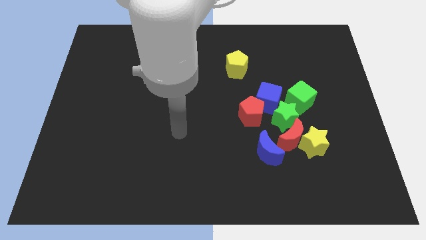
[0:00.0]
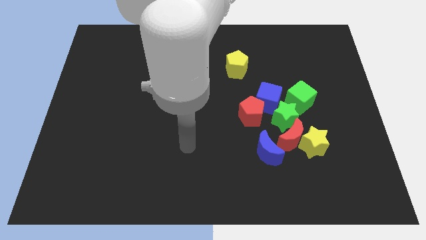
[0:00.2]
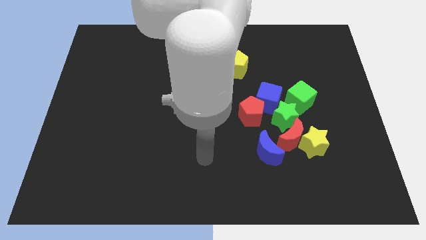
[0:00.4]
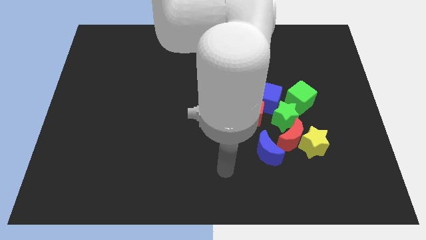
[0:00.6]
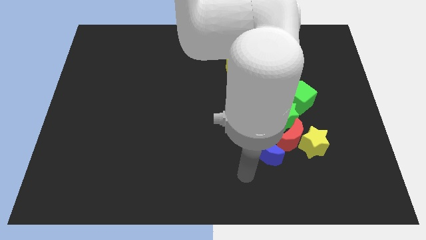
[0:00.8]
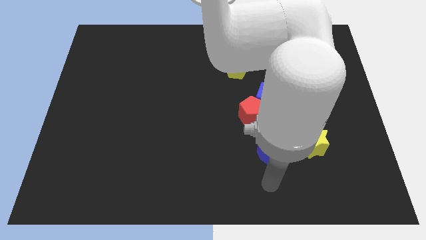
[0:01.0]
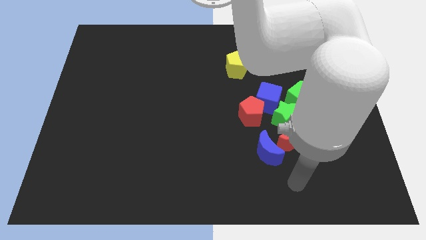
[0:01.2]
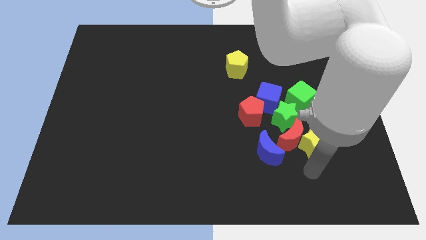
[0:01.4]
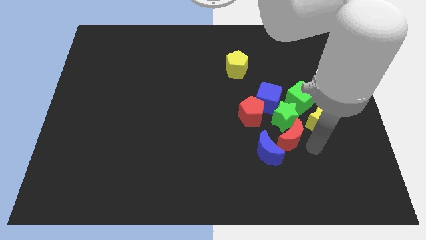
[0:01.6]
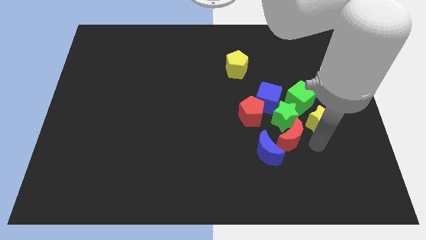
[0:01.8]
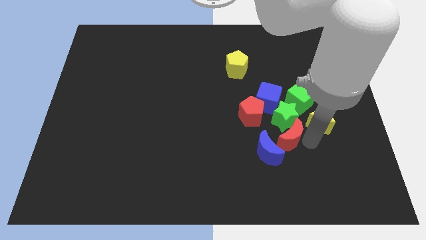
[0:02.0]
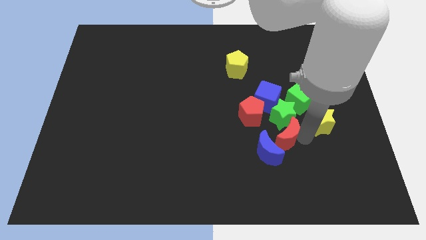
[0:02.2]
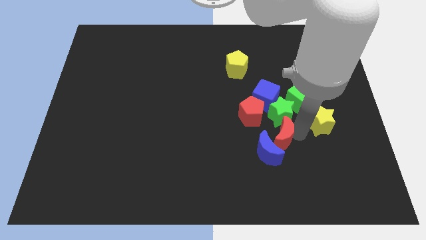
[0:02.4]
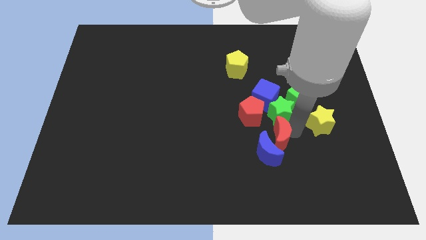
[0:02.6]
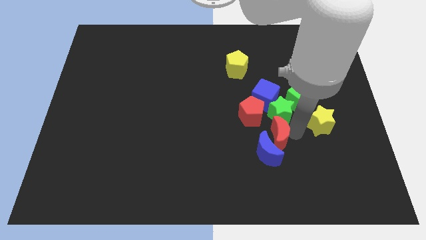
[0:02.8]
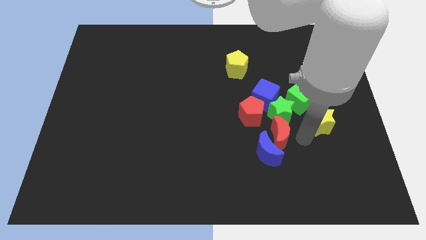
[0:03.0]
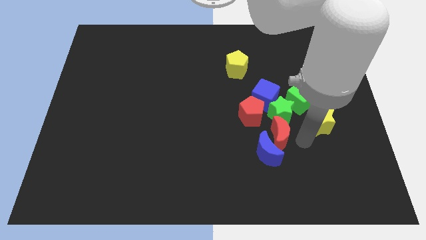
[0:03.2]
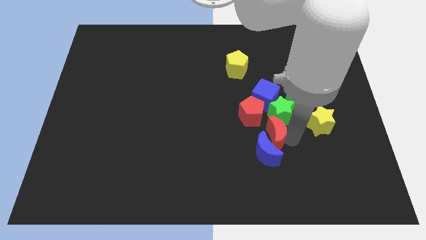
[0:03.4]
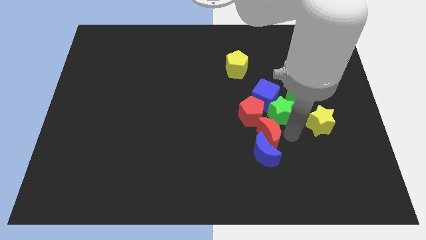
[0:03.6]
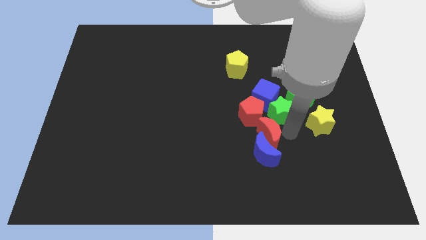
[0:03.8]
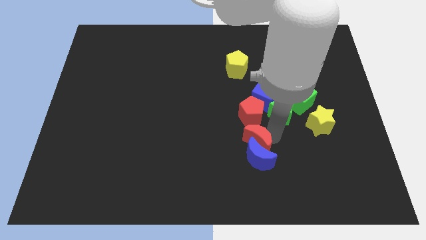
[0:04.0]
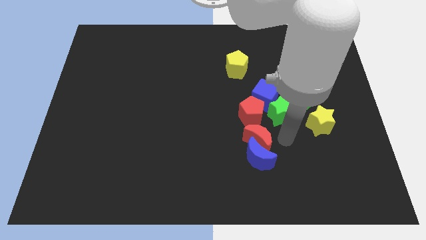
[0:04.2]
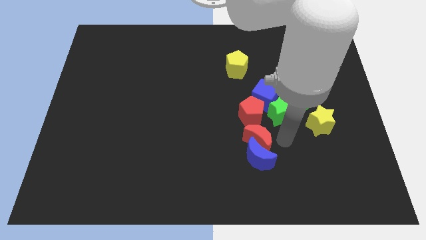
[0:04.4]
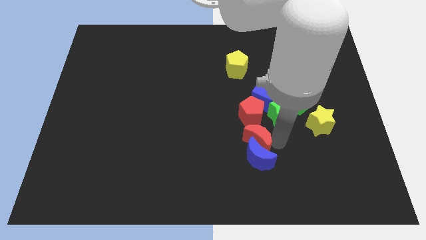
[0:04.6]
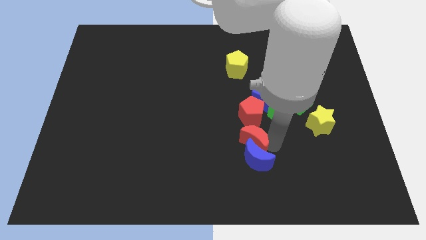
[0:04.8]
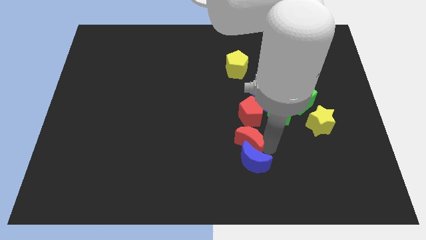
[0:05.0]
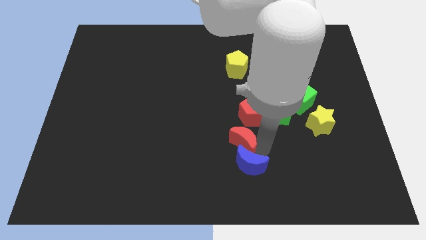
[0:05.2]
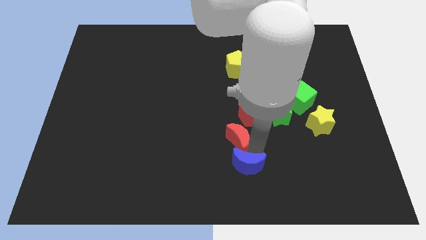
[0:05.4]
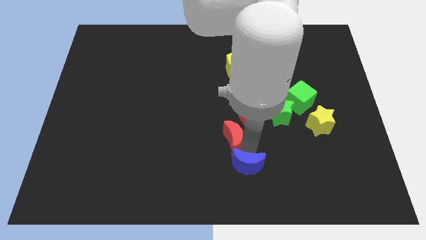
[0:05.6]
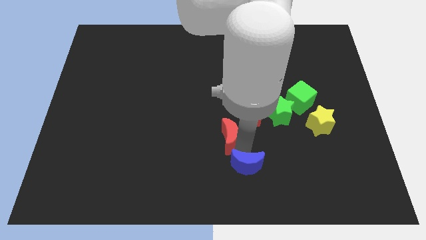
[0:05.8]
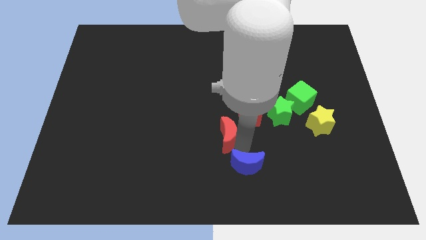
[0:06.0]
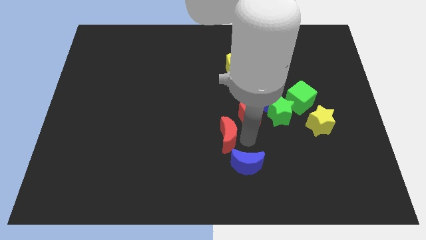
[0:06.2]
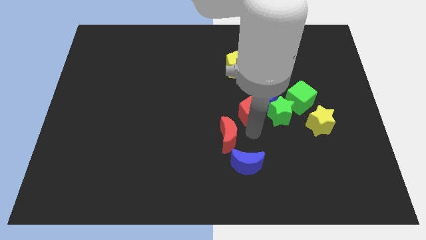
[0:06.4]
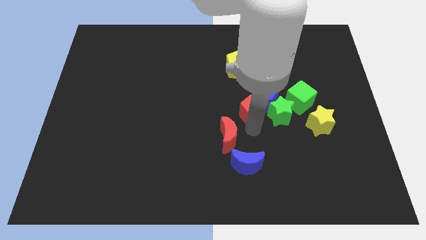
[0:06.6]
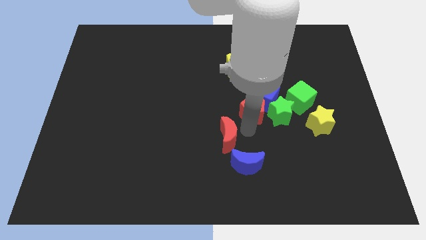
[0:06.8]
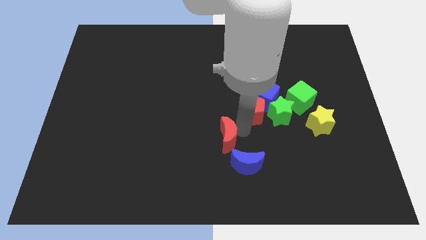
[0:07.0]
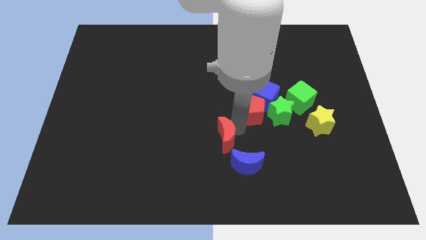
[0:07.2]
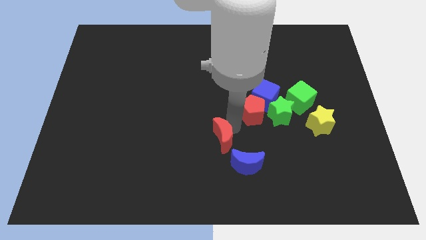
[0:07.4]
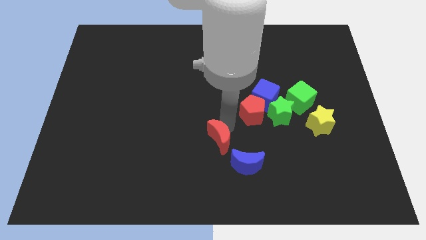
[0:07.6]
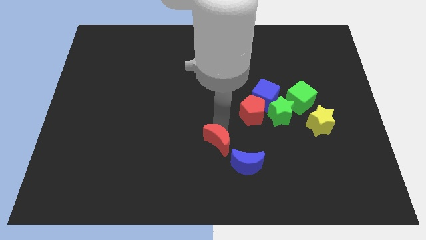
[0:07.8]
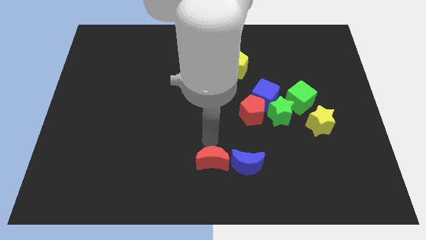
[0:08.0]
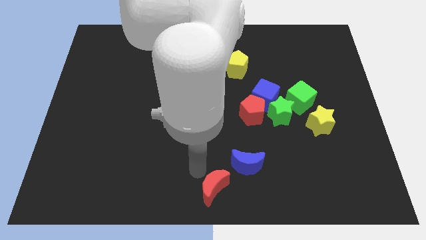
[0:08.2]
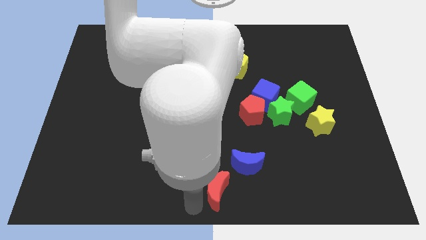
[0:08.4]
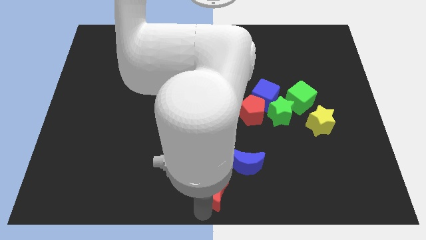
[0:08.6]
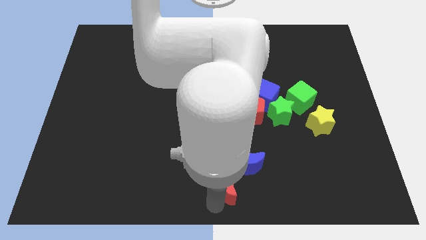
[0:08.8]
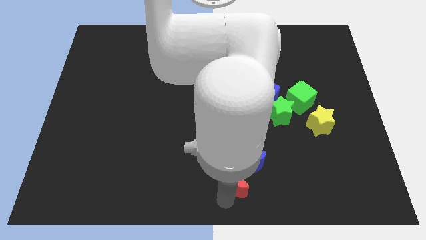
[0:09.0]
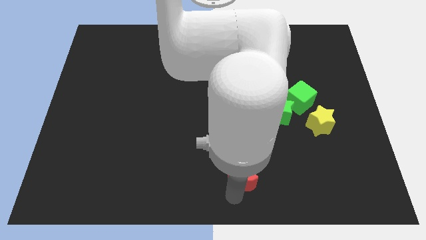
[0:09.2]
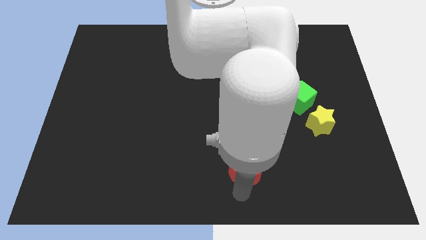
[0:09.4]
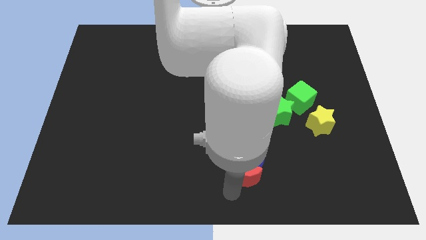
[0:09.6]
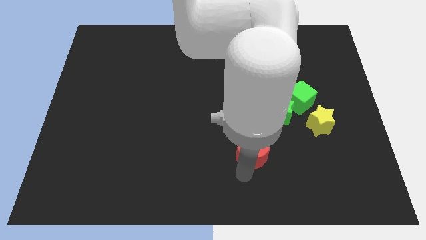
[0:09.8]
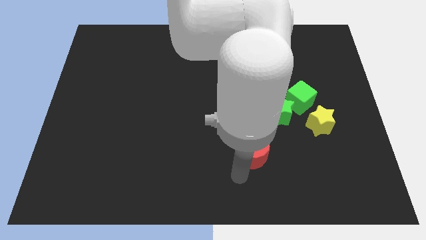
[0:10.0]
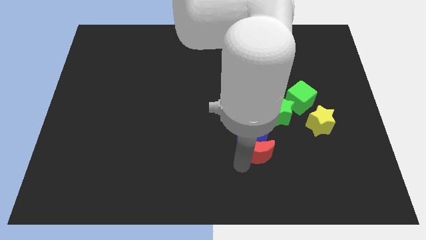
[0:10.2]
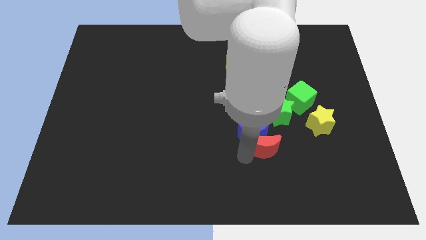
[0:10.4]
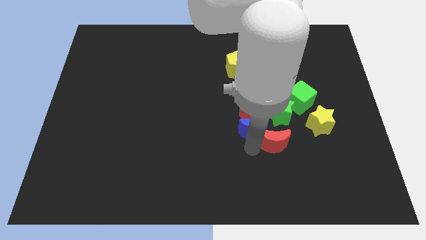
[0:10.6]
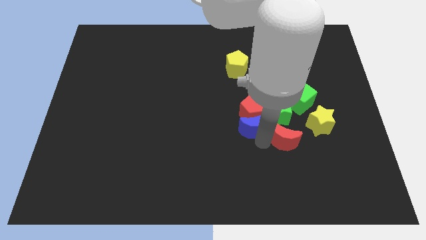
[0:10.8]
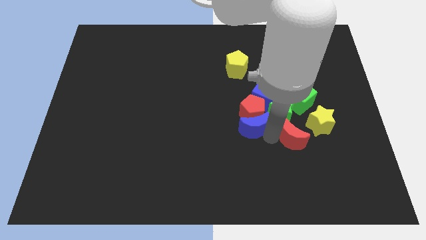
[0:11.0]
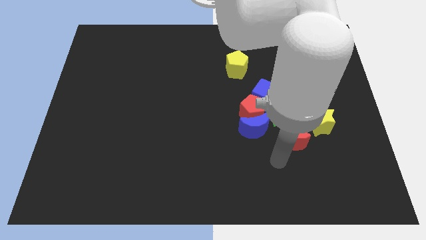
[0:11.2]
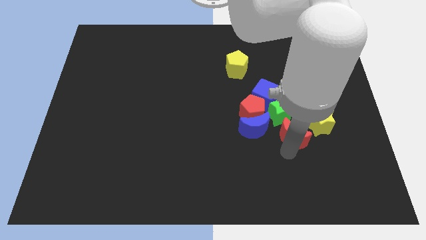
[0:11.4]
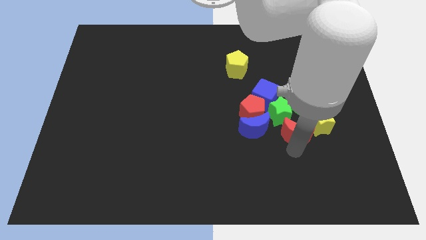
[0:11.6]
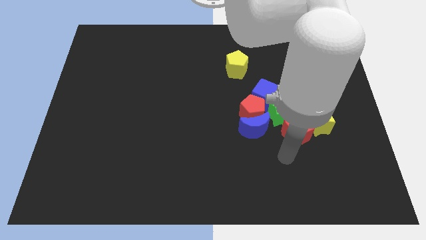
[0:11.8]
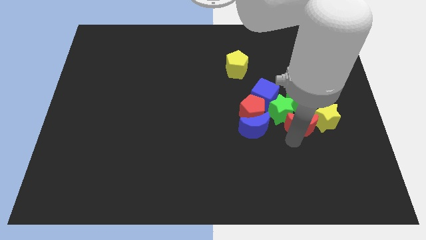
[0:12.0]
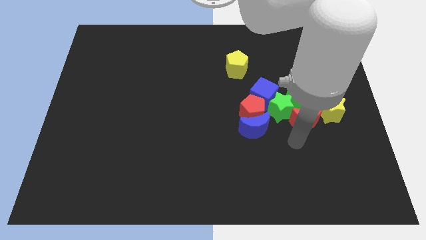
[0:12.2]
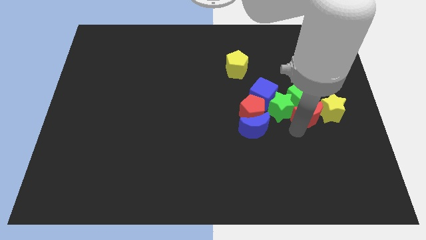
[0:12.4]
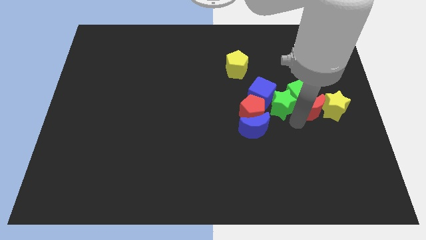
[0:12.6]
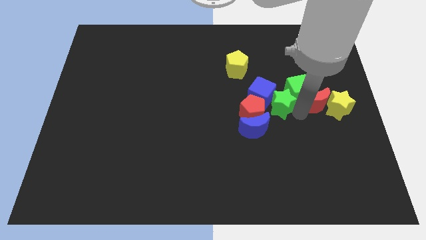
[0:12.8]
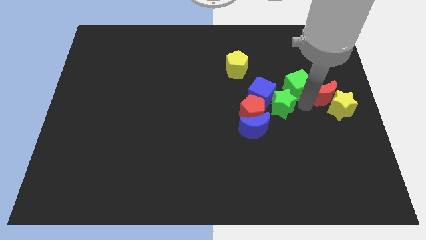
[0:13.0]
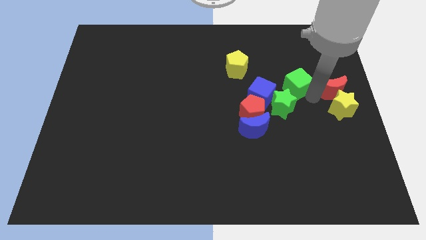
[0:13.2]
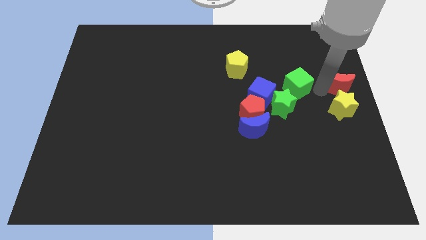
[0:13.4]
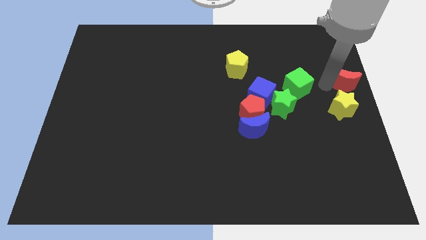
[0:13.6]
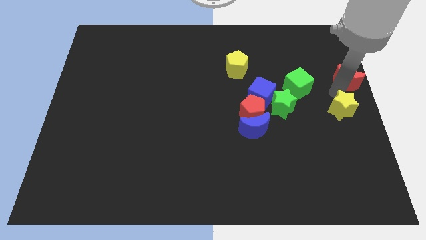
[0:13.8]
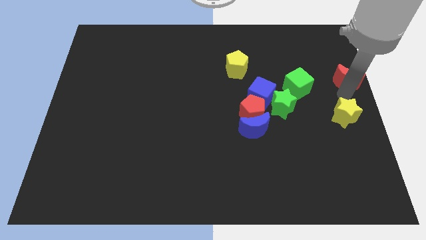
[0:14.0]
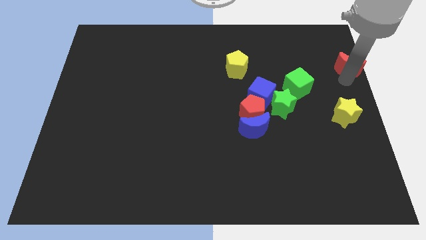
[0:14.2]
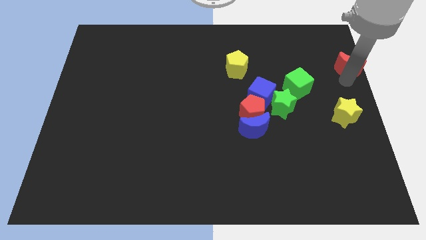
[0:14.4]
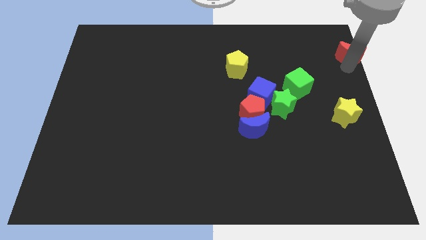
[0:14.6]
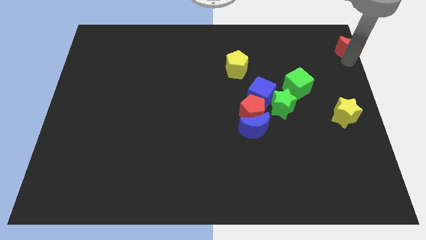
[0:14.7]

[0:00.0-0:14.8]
slide the red moon to the upper right corner
